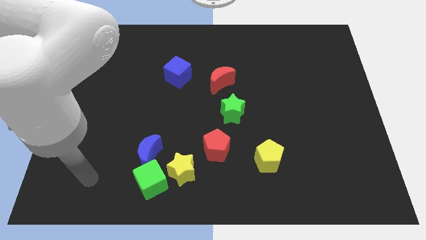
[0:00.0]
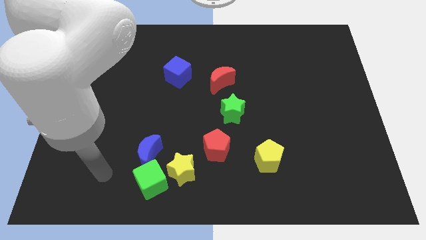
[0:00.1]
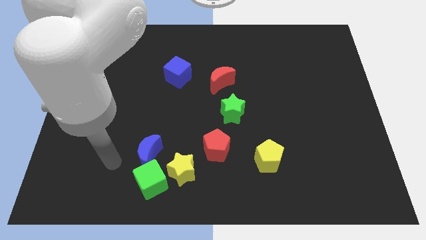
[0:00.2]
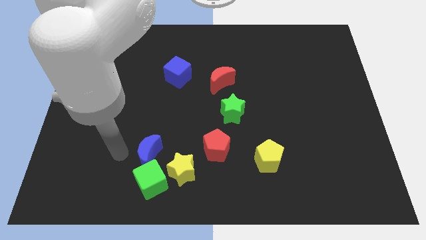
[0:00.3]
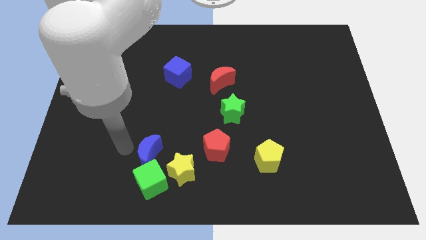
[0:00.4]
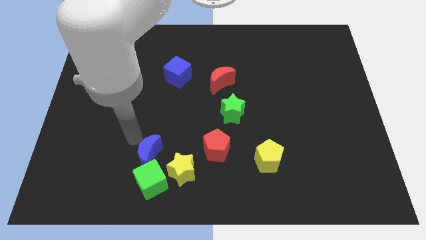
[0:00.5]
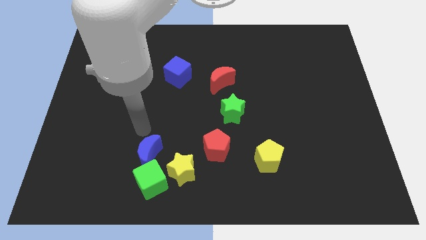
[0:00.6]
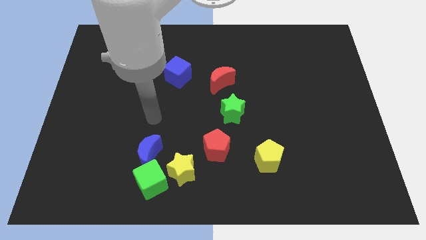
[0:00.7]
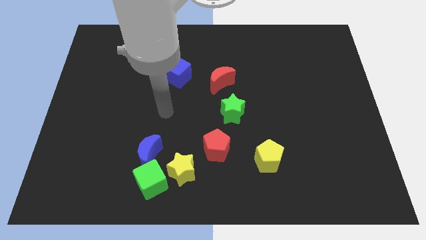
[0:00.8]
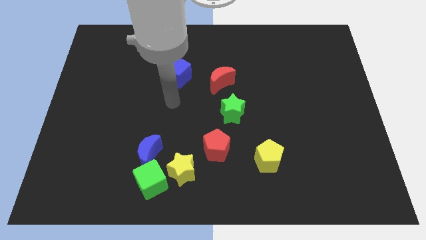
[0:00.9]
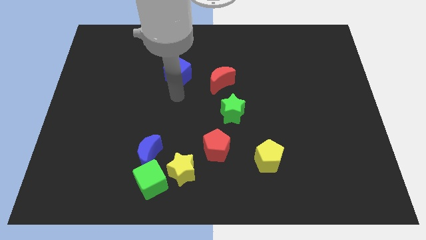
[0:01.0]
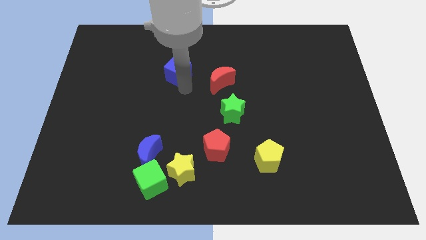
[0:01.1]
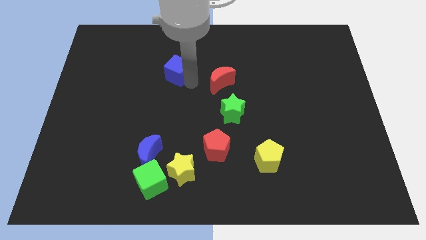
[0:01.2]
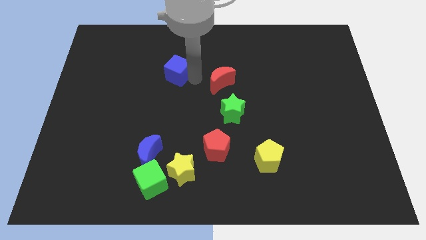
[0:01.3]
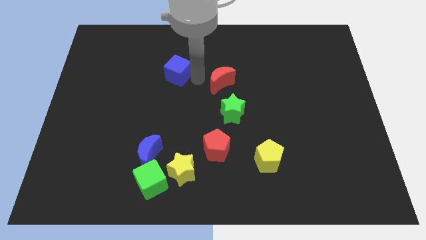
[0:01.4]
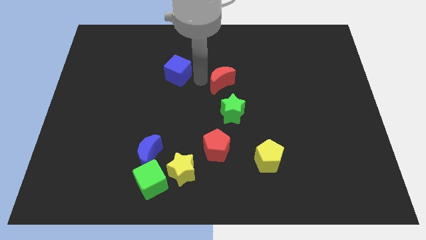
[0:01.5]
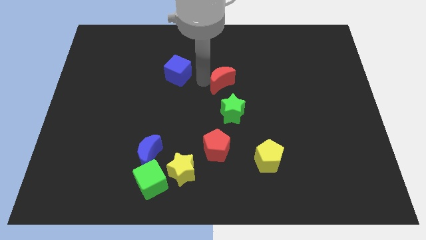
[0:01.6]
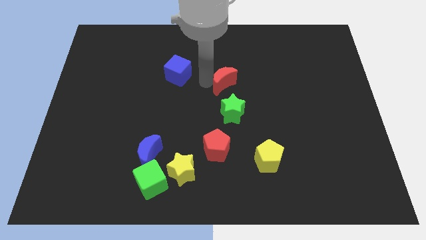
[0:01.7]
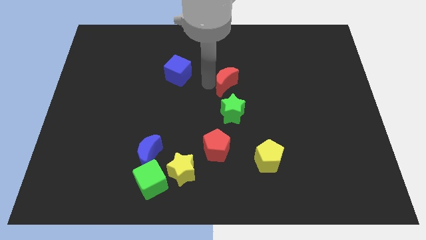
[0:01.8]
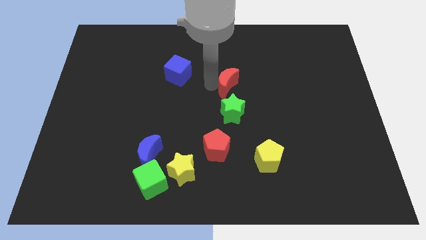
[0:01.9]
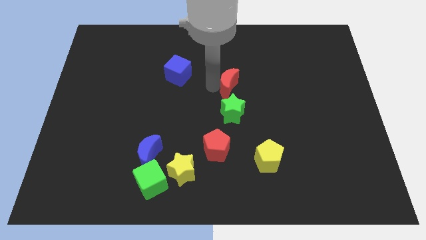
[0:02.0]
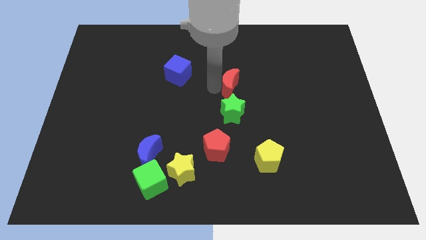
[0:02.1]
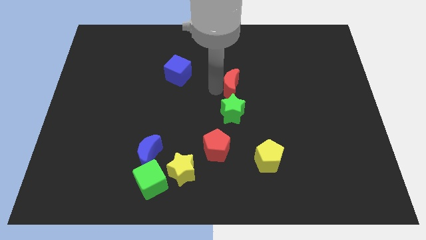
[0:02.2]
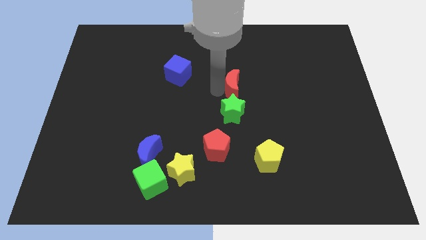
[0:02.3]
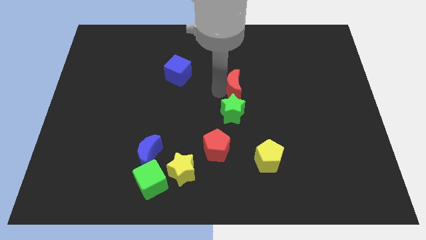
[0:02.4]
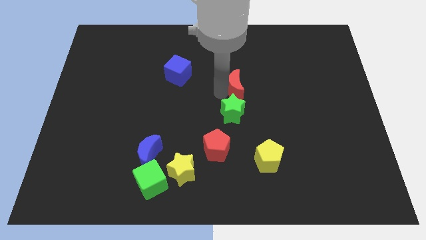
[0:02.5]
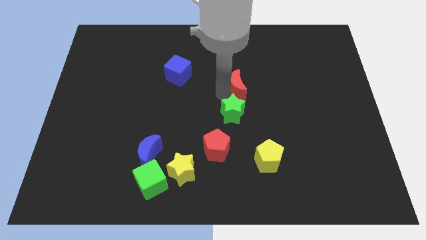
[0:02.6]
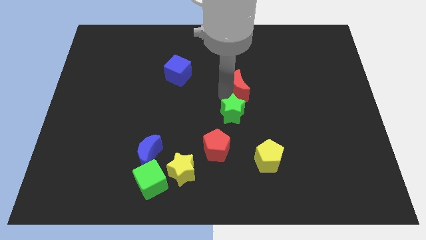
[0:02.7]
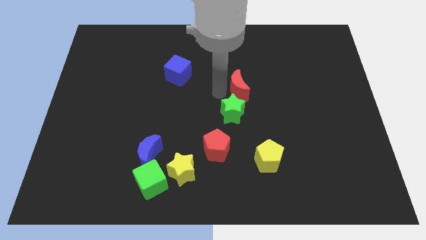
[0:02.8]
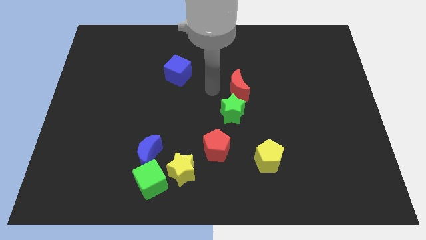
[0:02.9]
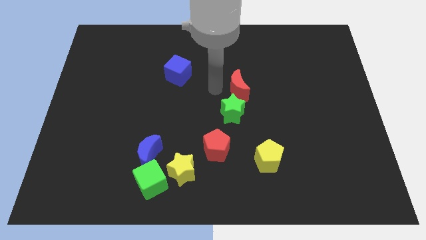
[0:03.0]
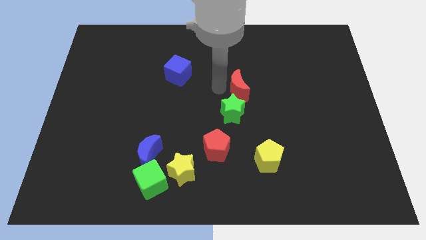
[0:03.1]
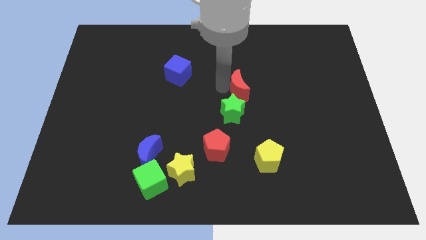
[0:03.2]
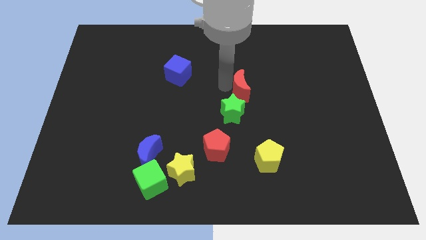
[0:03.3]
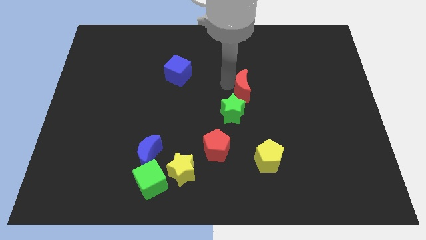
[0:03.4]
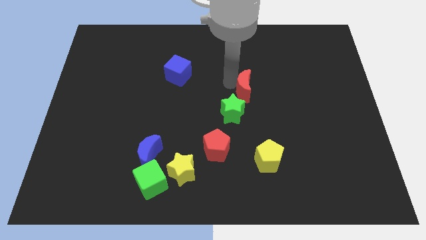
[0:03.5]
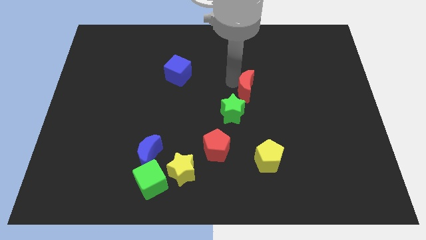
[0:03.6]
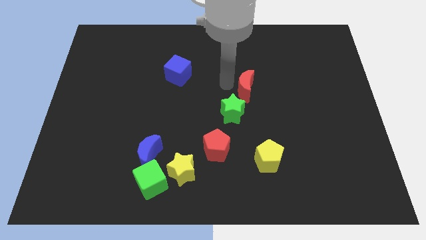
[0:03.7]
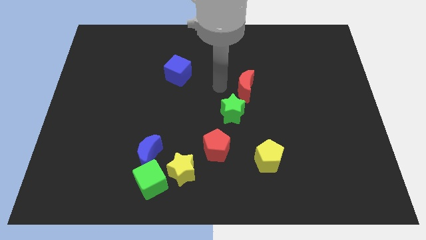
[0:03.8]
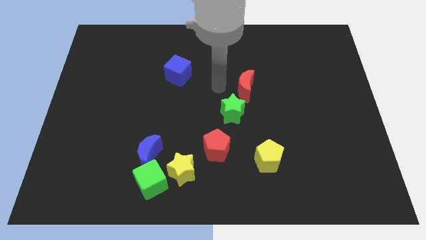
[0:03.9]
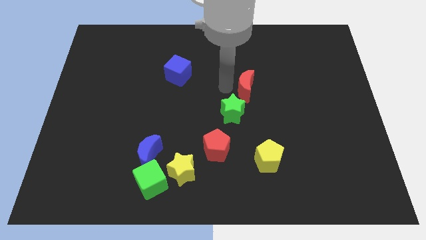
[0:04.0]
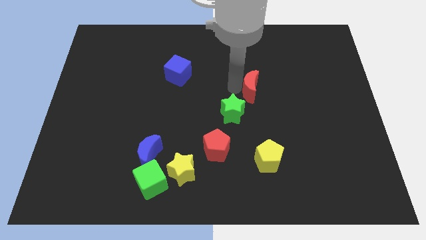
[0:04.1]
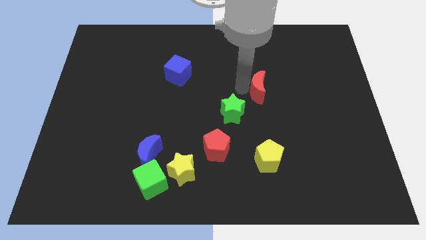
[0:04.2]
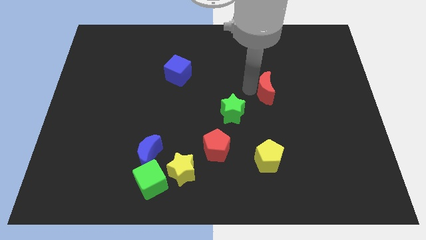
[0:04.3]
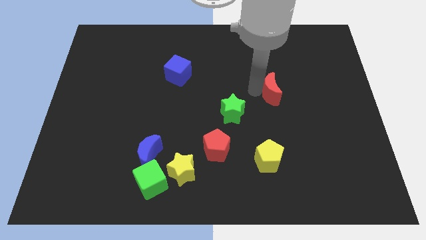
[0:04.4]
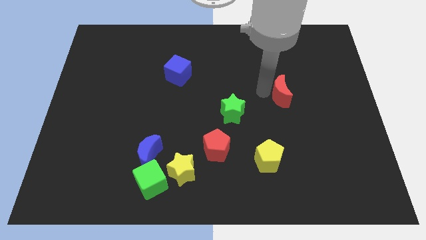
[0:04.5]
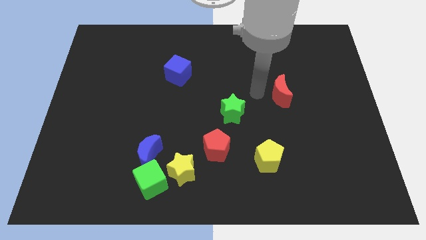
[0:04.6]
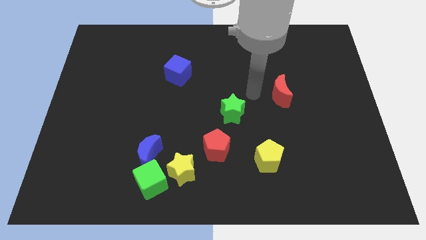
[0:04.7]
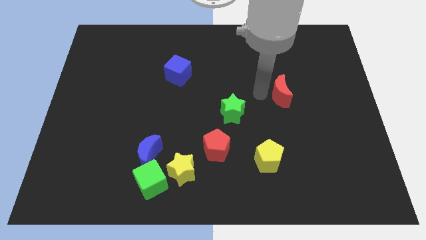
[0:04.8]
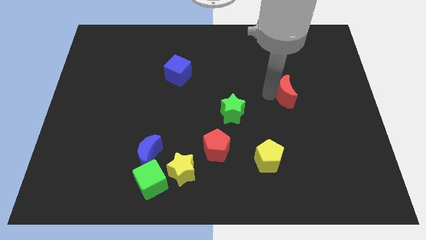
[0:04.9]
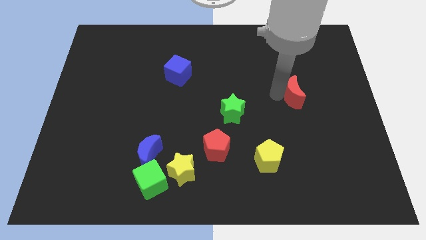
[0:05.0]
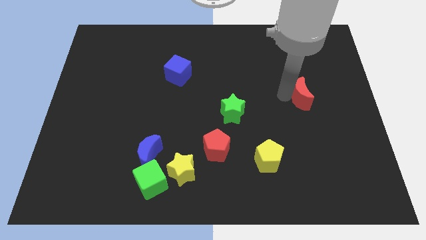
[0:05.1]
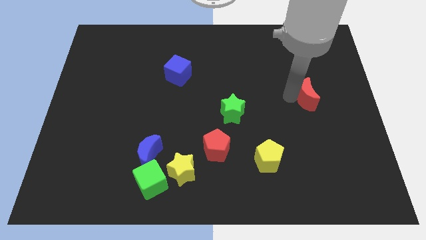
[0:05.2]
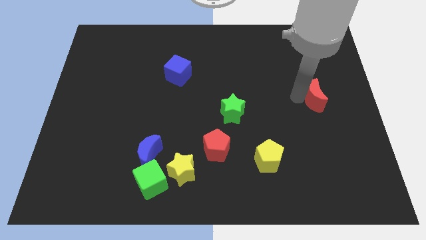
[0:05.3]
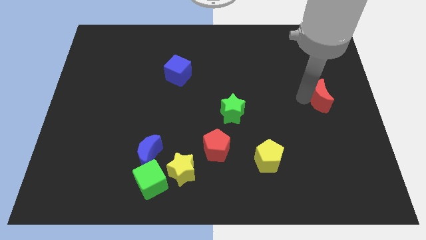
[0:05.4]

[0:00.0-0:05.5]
push the red moon to the center right

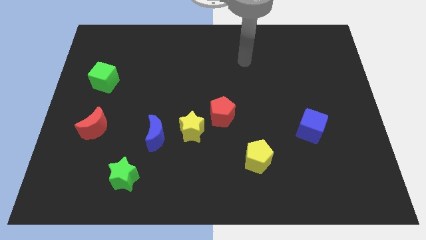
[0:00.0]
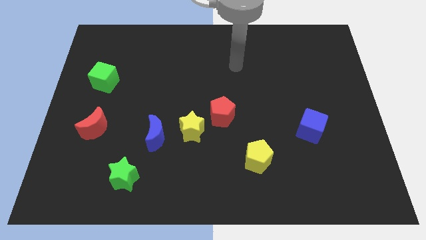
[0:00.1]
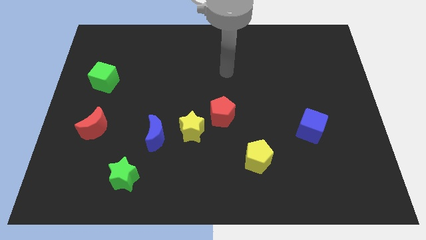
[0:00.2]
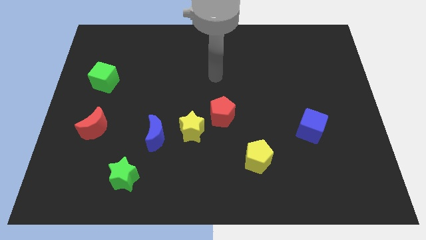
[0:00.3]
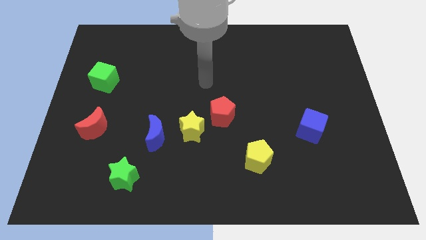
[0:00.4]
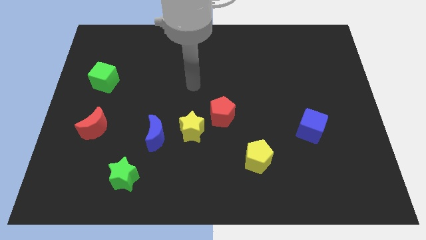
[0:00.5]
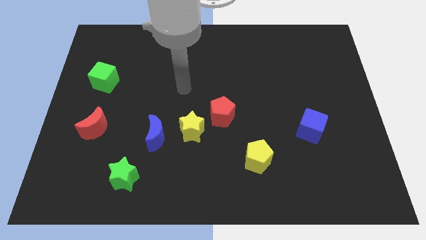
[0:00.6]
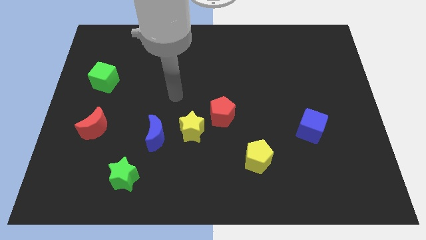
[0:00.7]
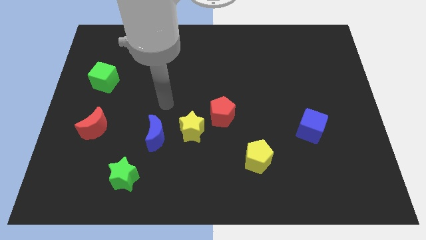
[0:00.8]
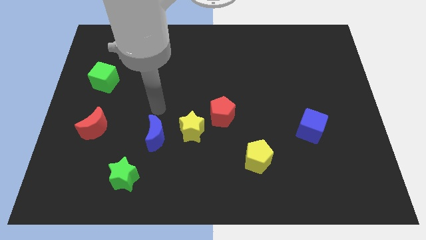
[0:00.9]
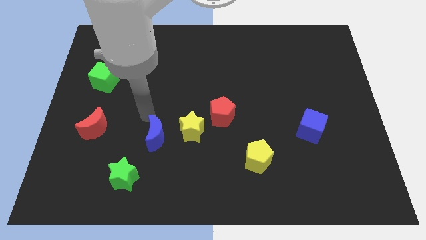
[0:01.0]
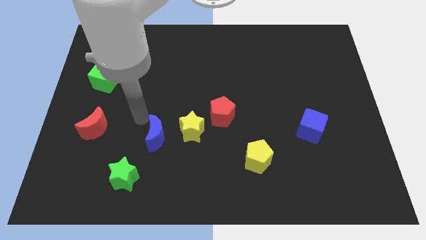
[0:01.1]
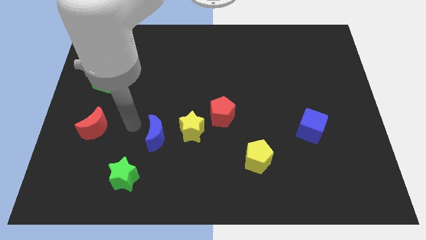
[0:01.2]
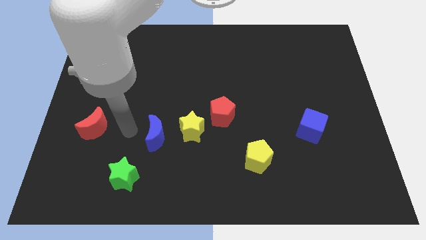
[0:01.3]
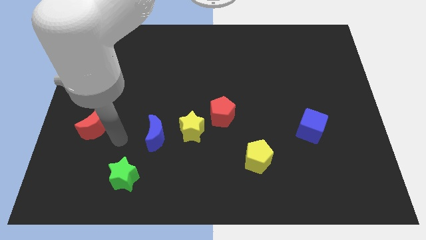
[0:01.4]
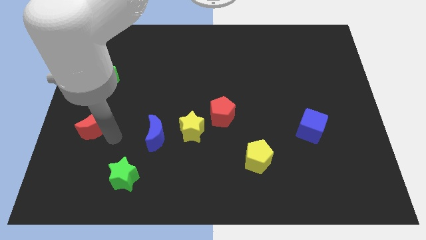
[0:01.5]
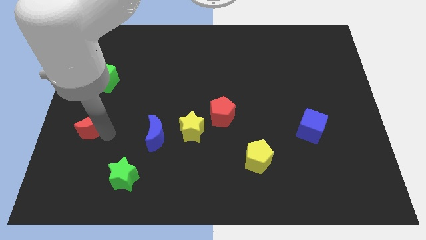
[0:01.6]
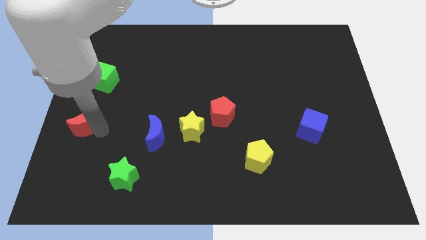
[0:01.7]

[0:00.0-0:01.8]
push the red moon to the left side
